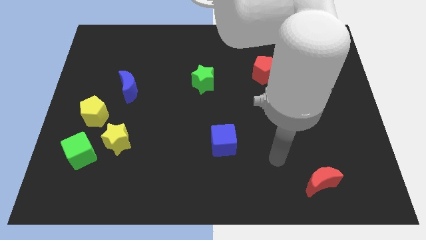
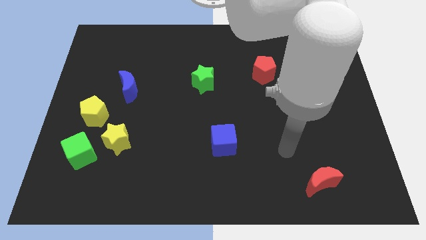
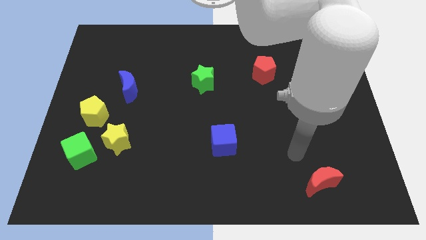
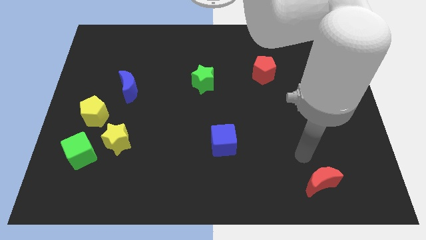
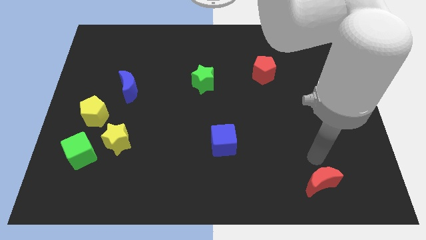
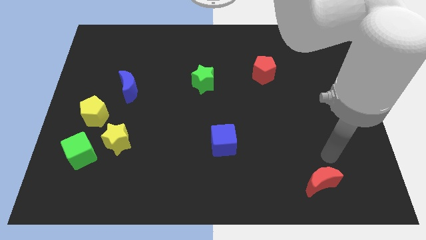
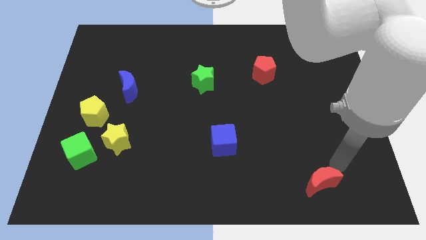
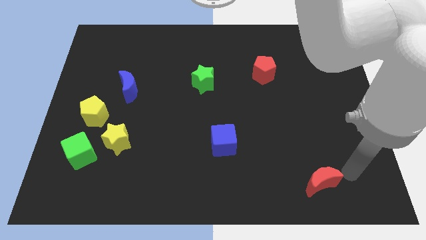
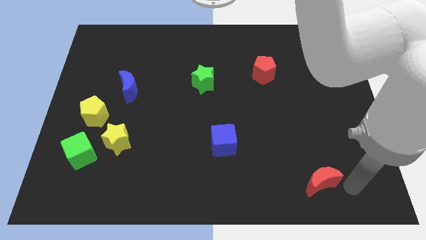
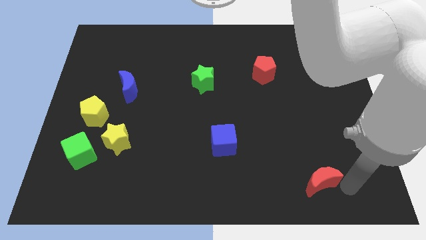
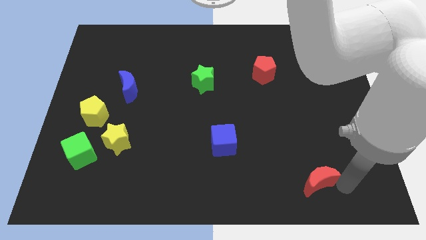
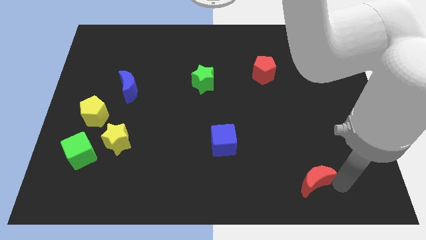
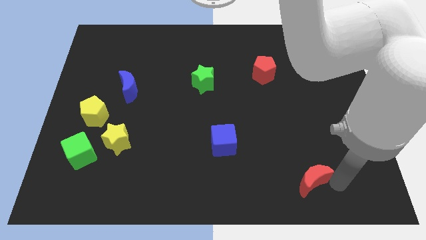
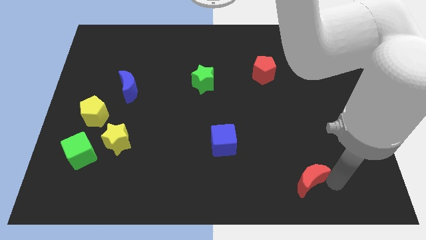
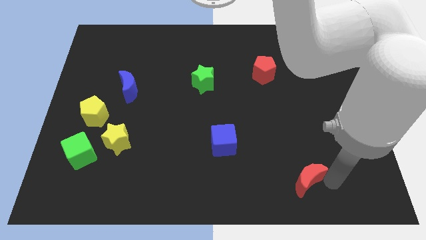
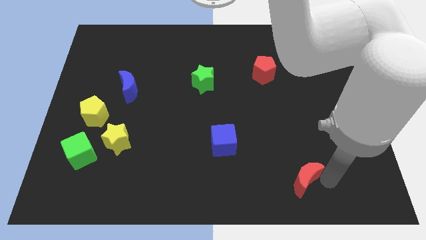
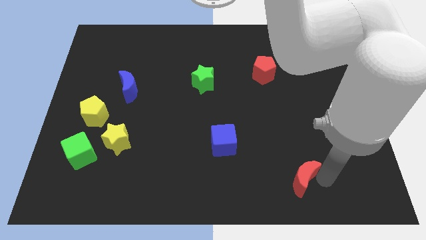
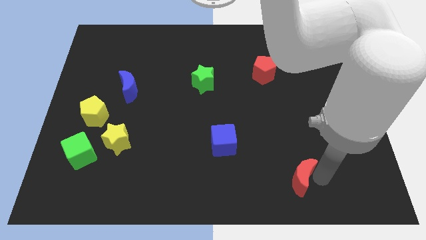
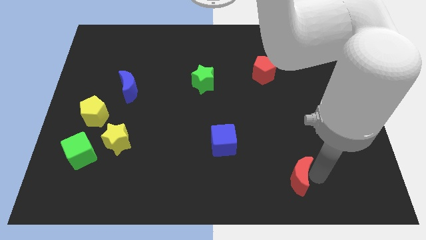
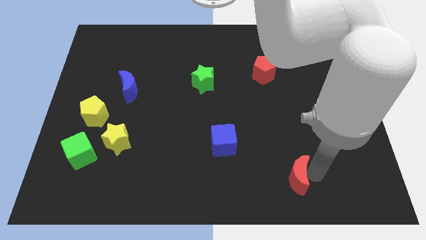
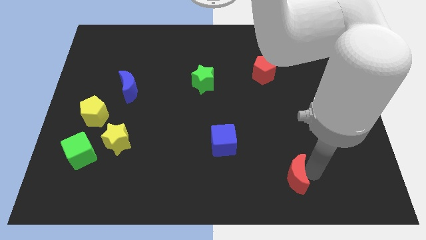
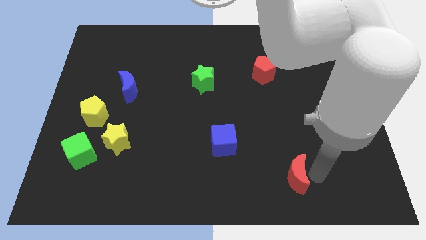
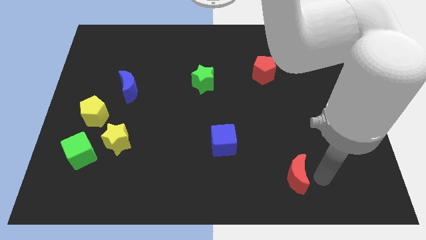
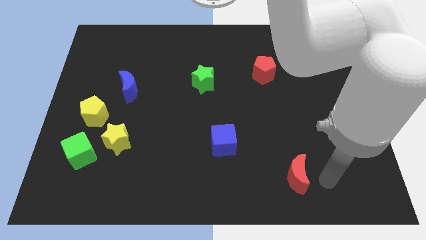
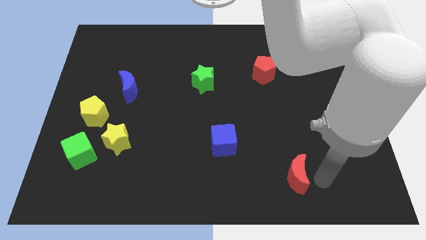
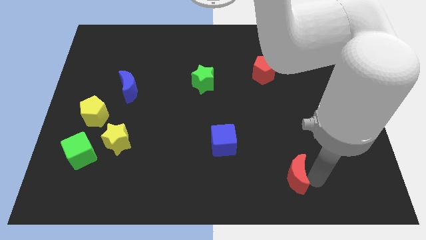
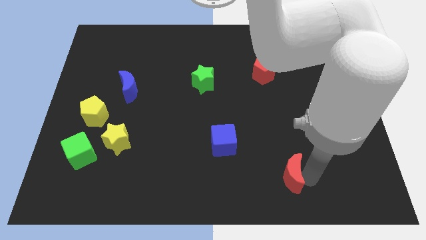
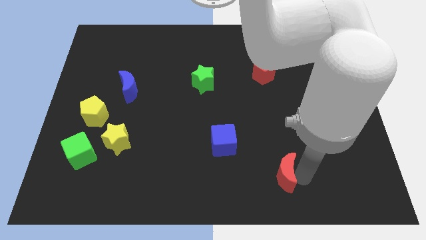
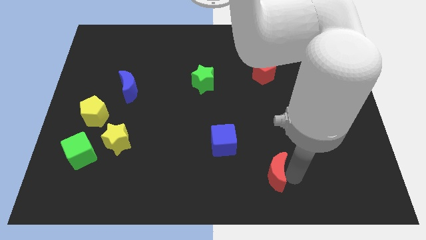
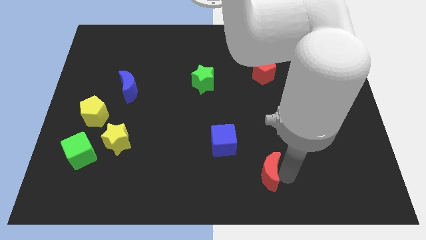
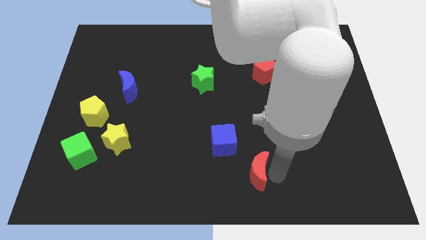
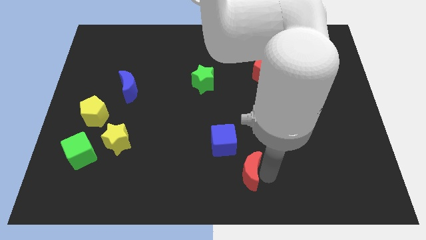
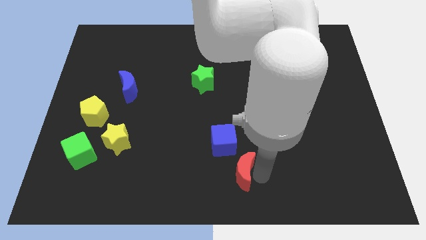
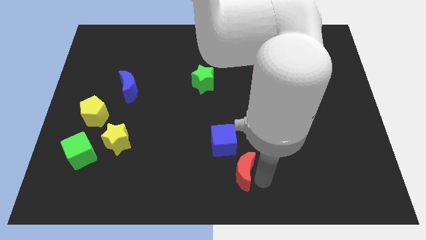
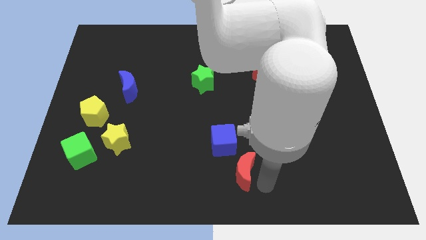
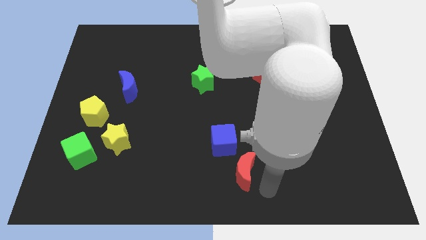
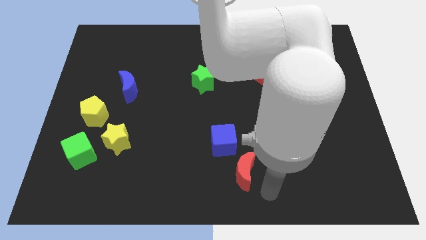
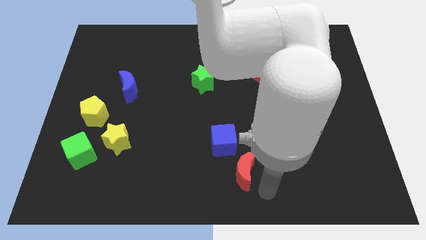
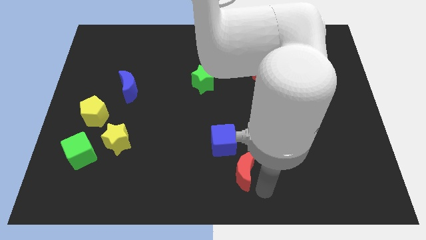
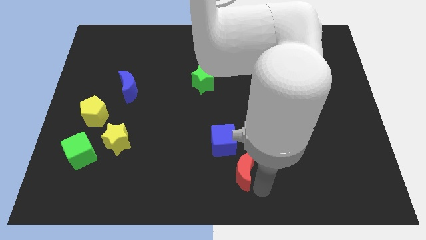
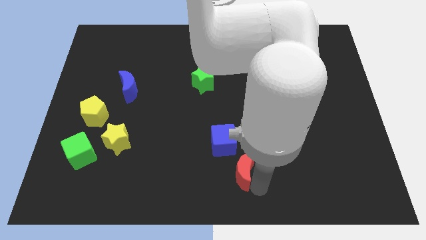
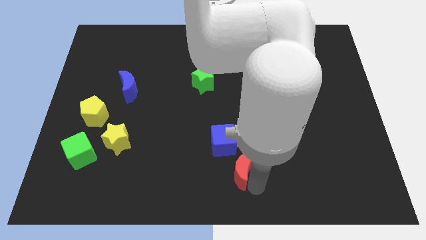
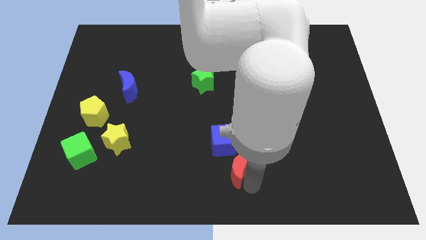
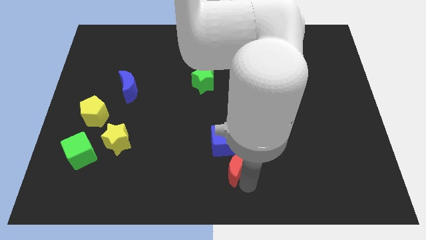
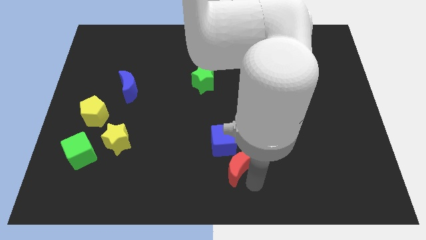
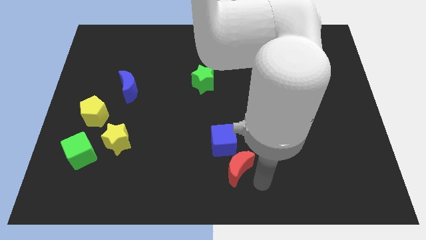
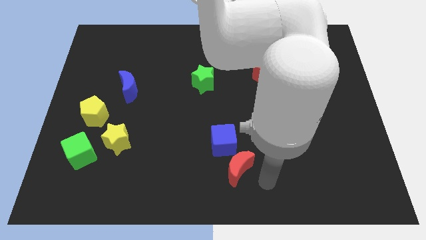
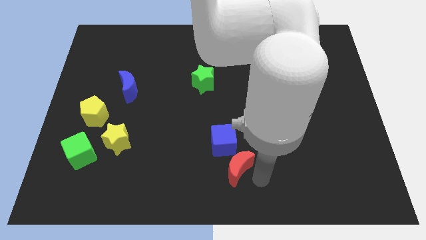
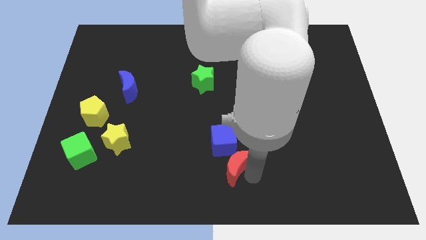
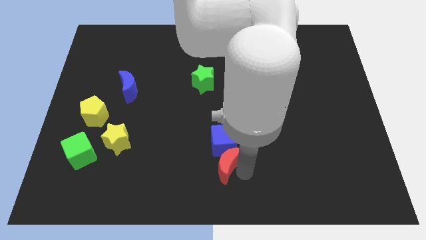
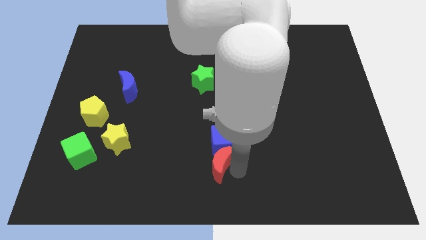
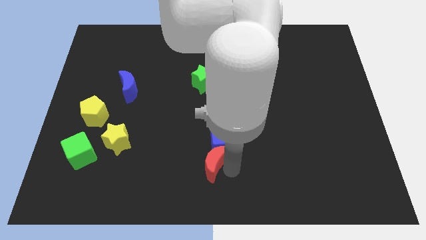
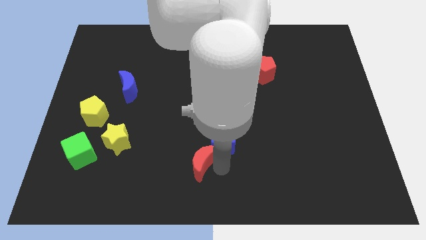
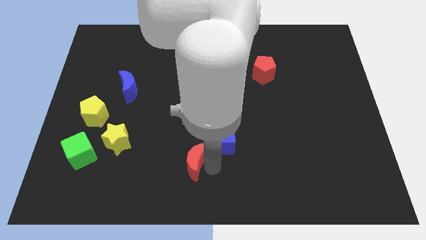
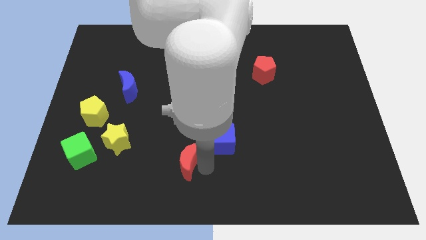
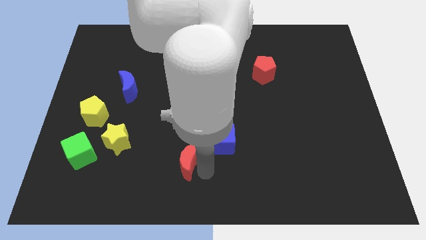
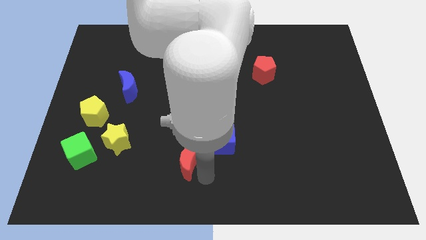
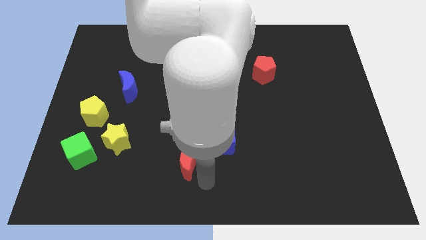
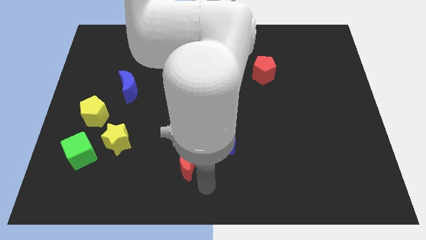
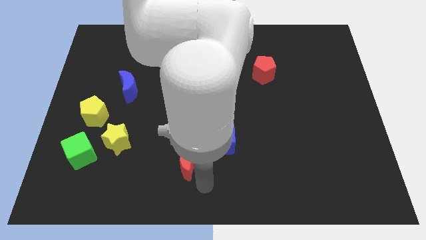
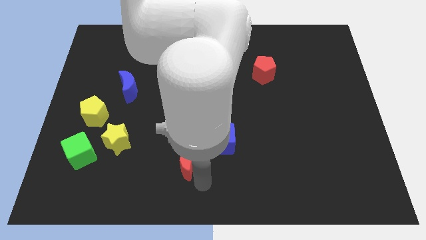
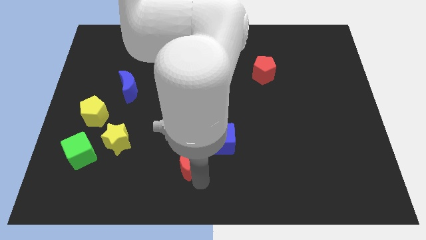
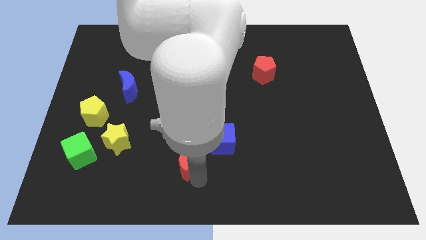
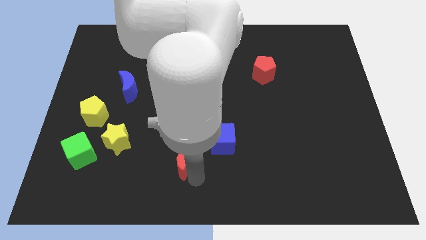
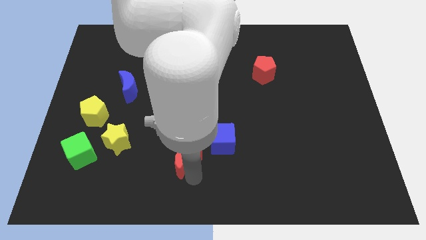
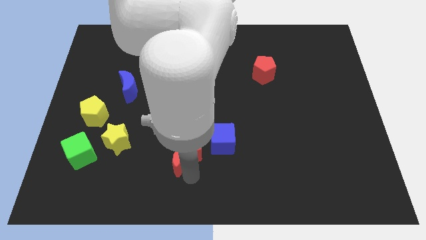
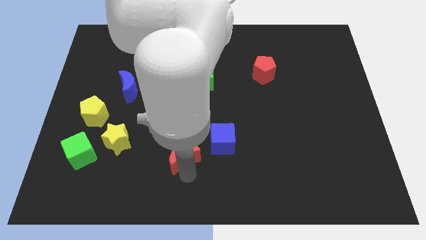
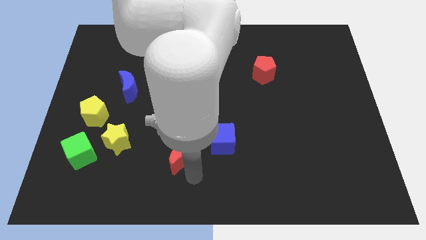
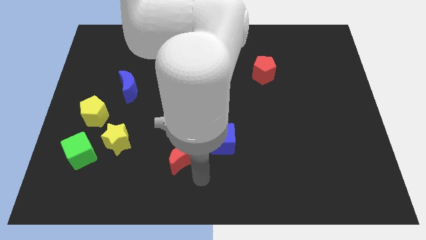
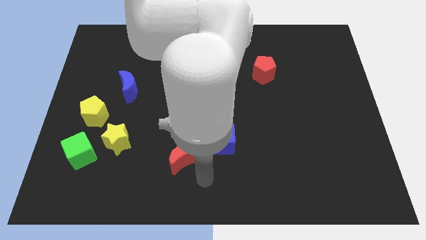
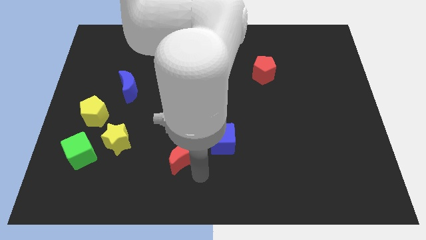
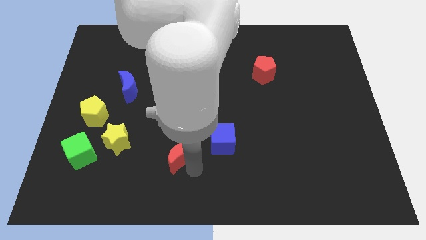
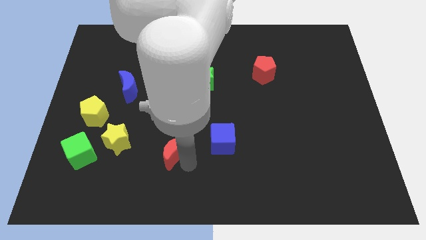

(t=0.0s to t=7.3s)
slide the red moon just right of the yellow star

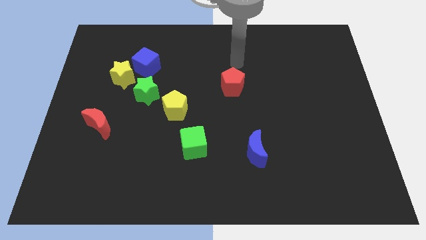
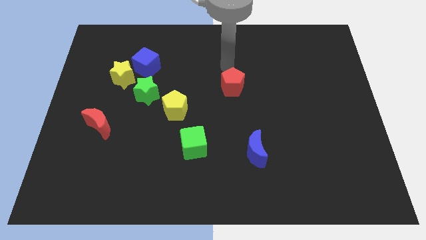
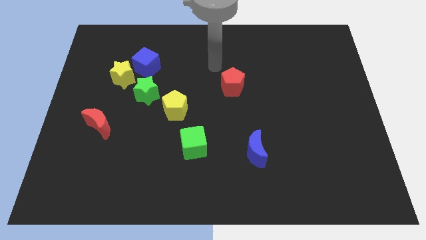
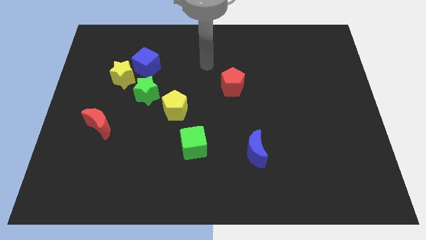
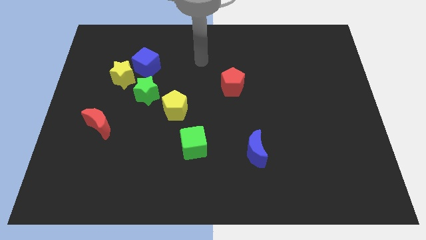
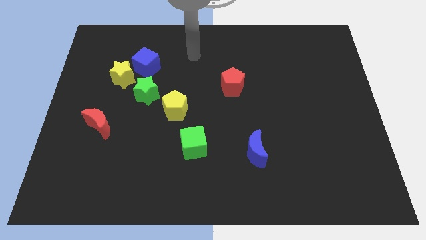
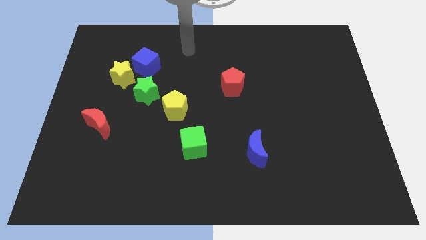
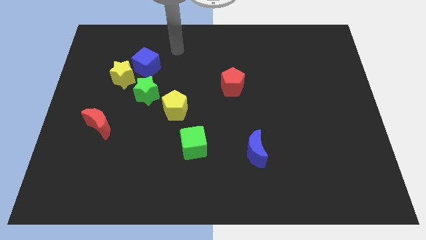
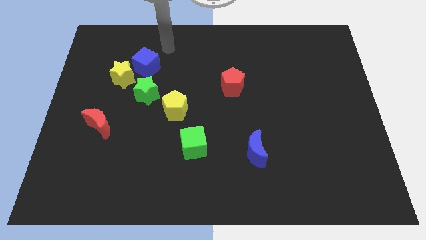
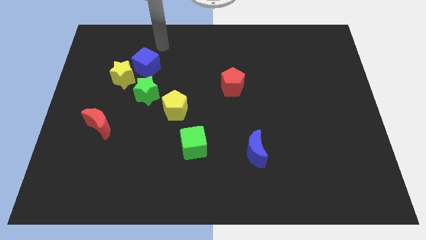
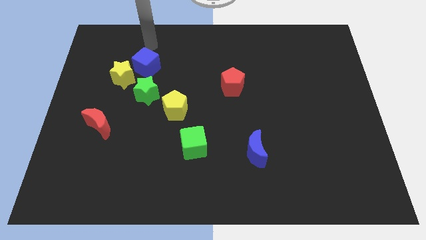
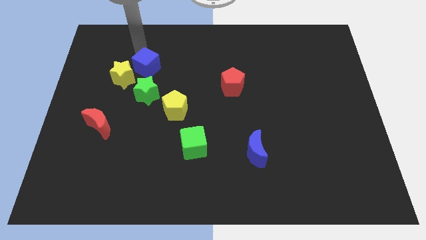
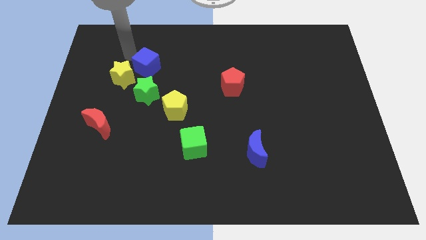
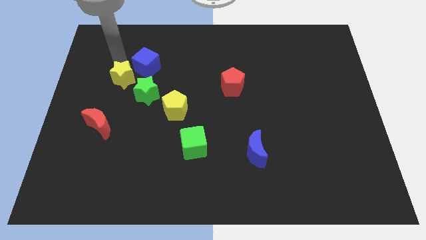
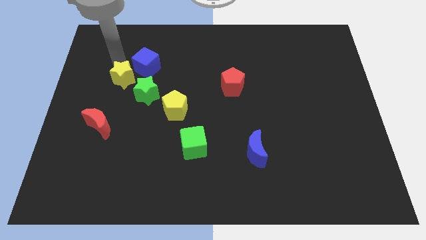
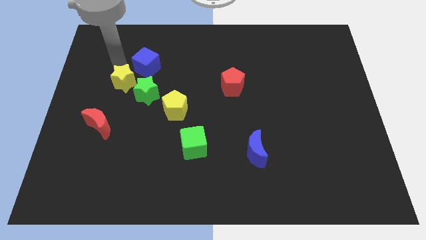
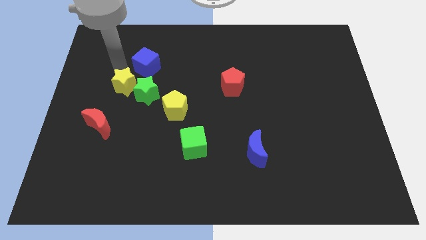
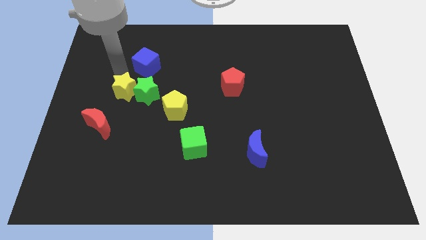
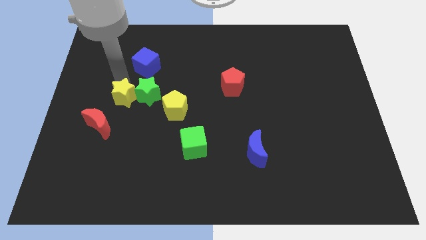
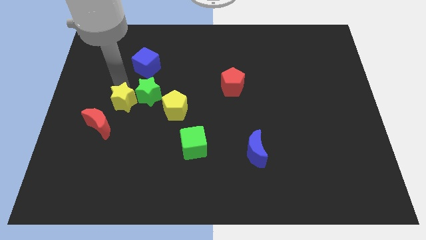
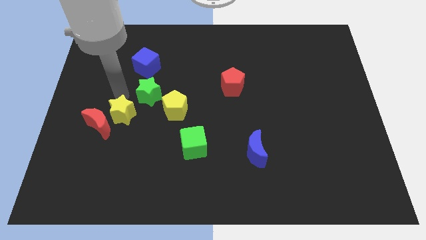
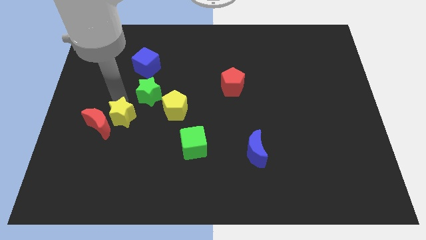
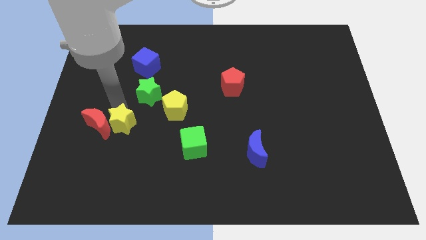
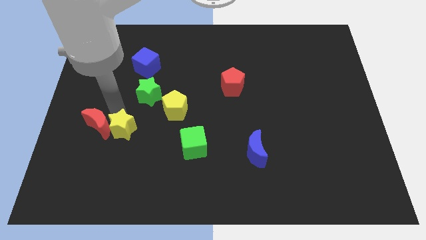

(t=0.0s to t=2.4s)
move the yellow star below the green star
